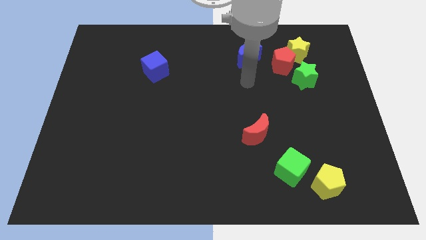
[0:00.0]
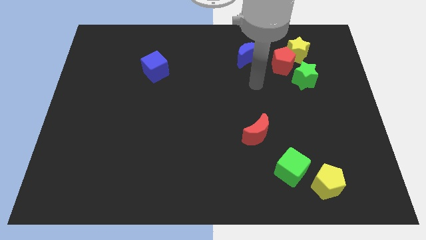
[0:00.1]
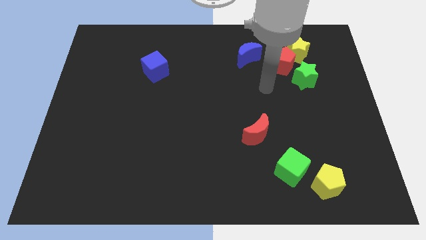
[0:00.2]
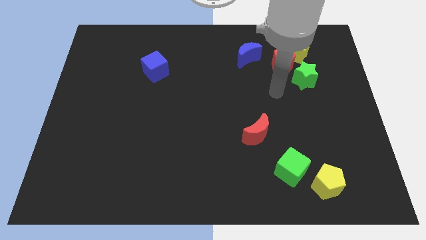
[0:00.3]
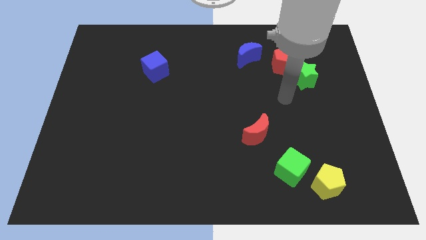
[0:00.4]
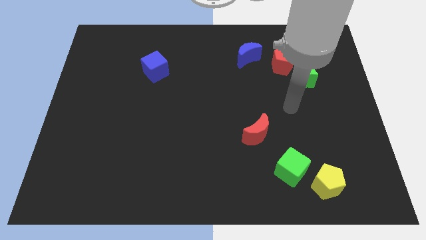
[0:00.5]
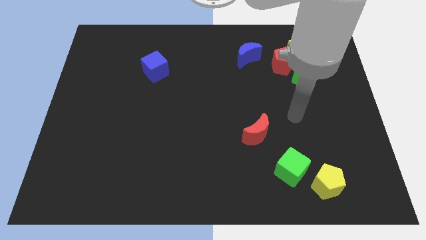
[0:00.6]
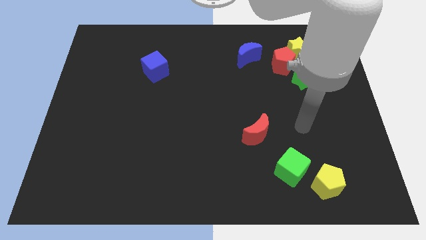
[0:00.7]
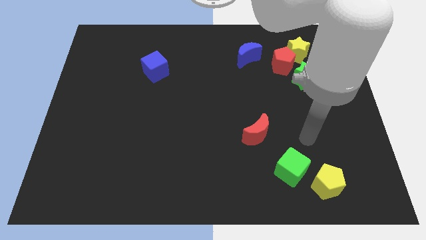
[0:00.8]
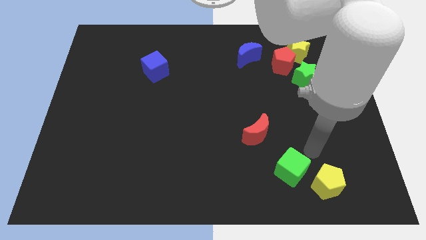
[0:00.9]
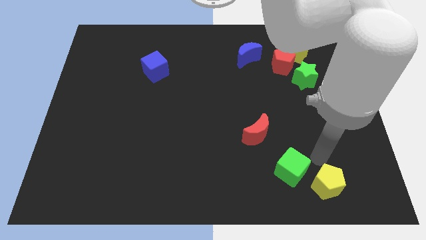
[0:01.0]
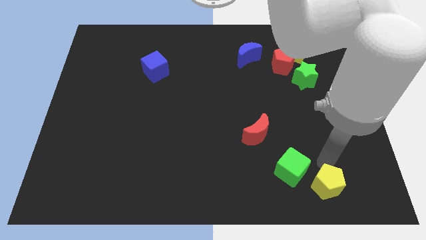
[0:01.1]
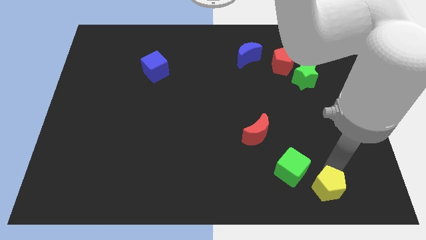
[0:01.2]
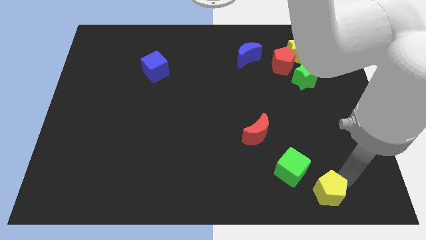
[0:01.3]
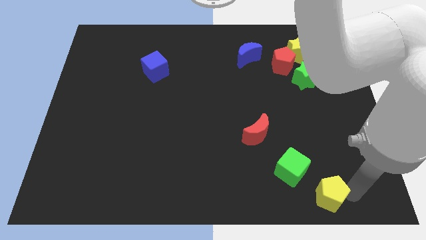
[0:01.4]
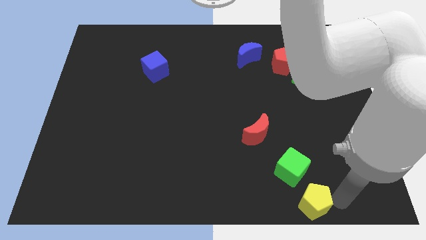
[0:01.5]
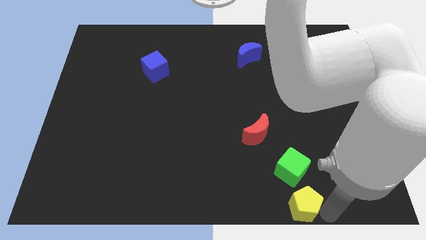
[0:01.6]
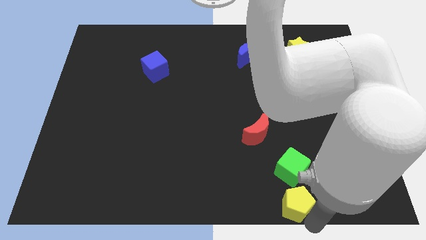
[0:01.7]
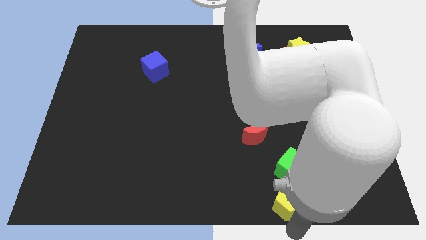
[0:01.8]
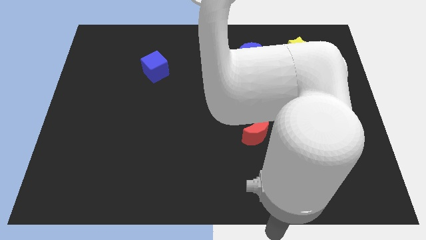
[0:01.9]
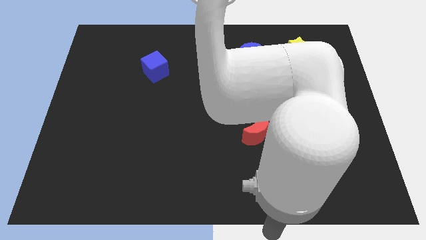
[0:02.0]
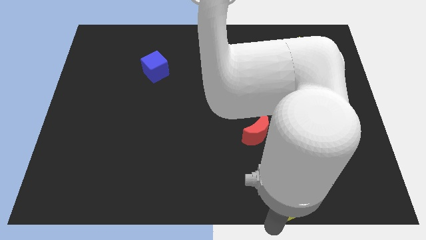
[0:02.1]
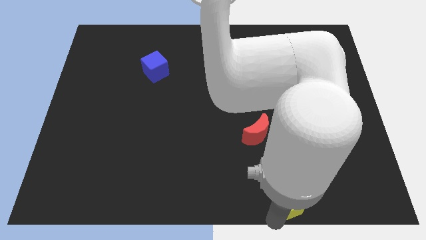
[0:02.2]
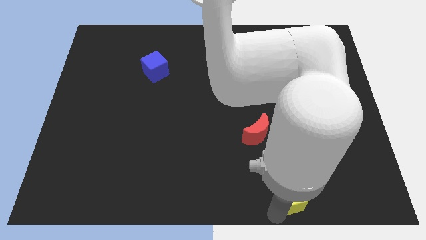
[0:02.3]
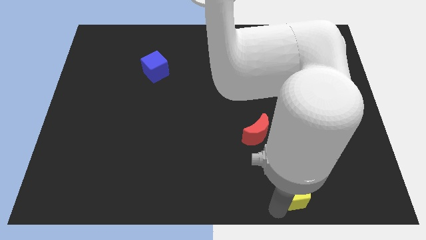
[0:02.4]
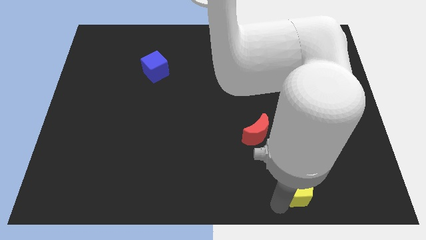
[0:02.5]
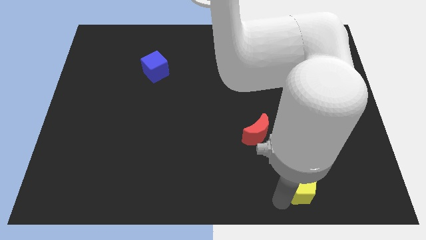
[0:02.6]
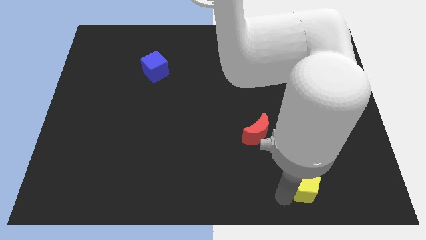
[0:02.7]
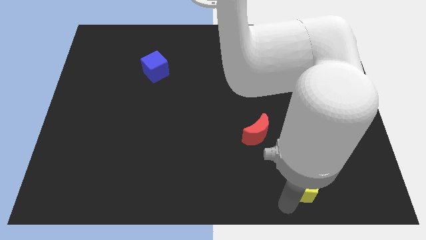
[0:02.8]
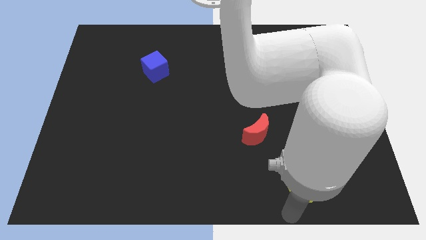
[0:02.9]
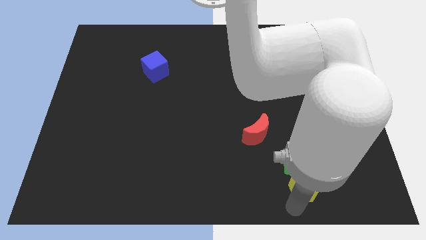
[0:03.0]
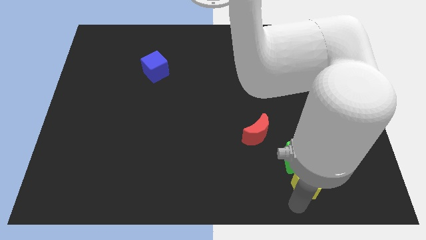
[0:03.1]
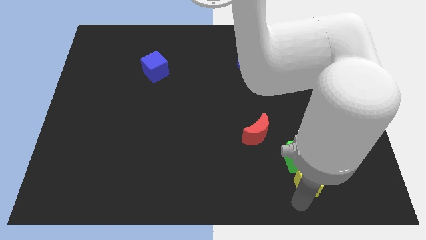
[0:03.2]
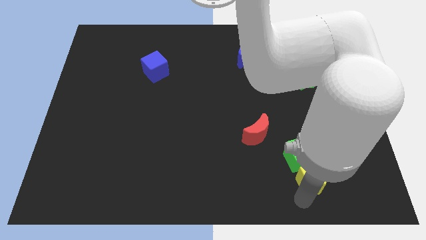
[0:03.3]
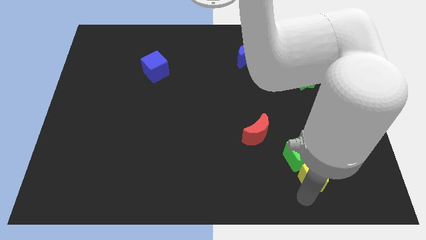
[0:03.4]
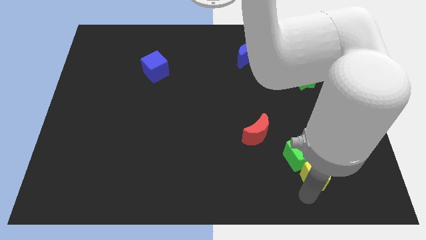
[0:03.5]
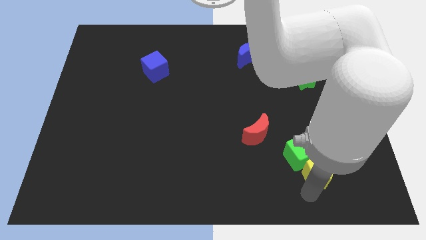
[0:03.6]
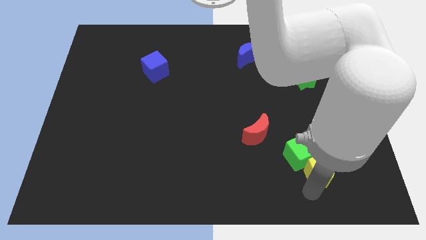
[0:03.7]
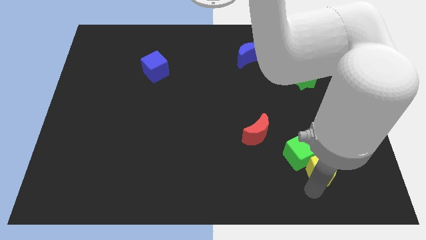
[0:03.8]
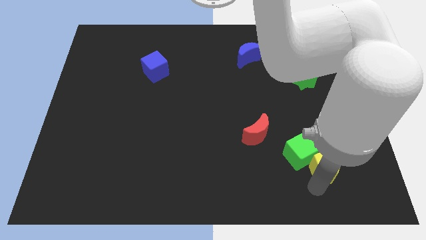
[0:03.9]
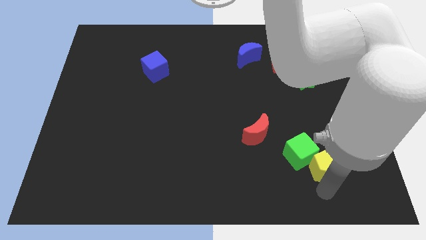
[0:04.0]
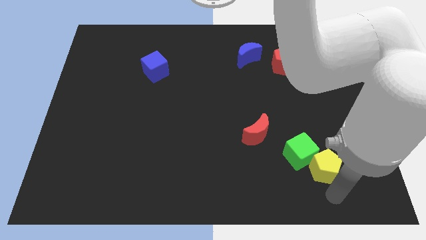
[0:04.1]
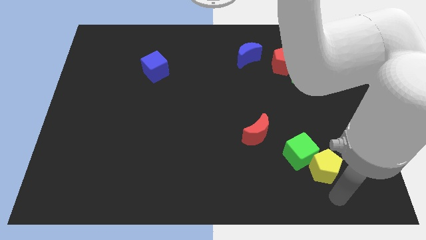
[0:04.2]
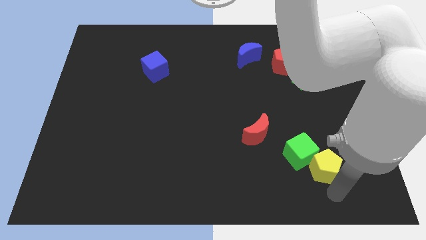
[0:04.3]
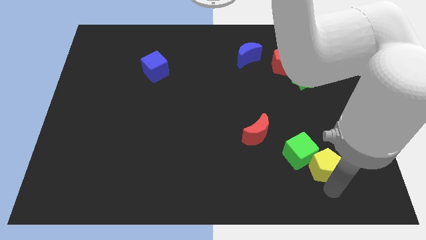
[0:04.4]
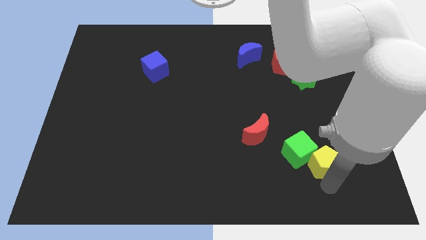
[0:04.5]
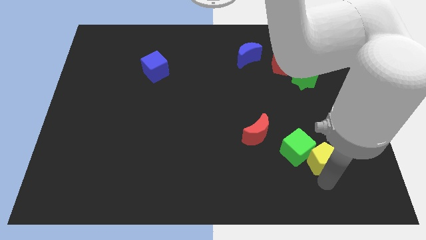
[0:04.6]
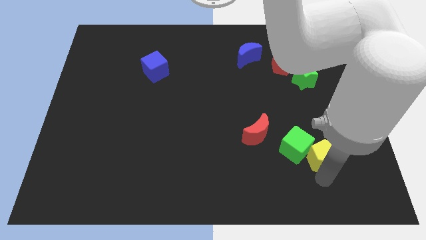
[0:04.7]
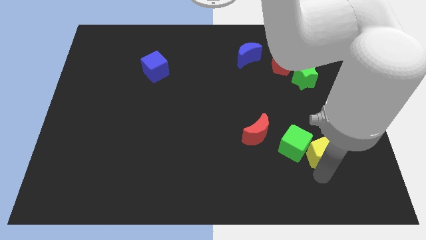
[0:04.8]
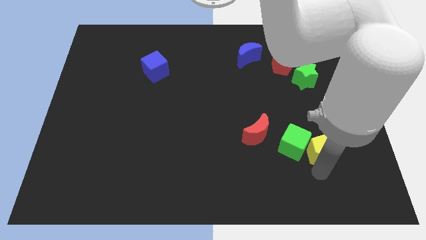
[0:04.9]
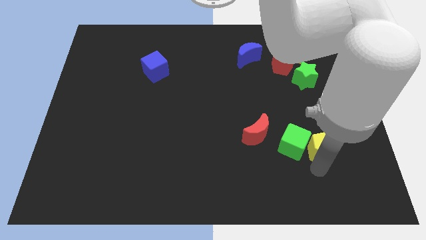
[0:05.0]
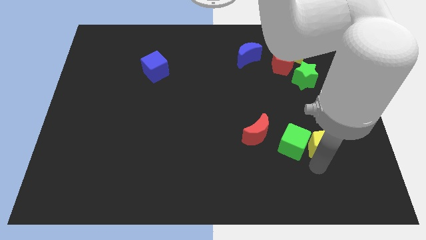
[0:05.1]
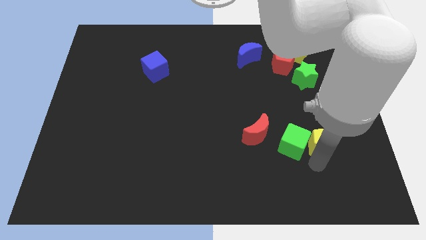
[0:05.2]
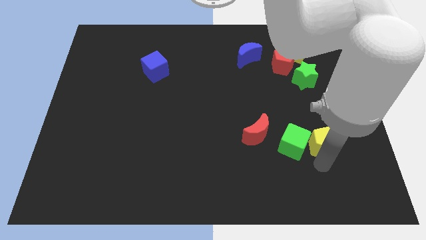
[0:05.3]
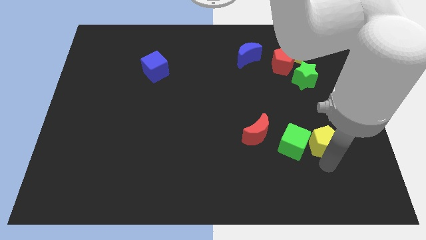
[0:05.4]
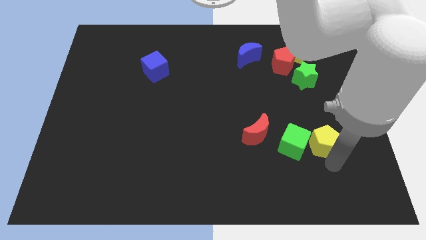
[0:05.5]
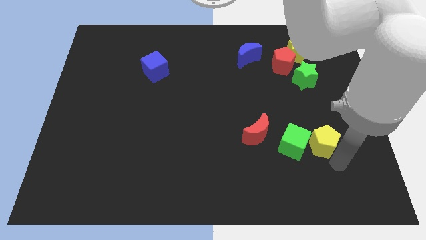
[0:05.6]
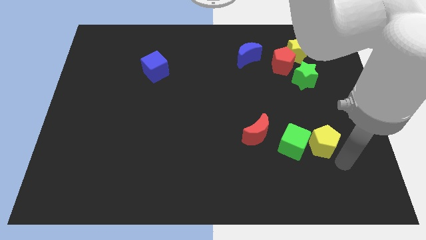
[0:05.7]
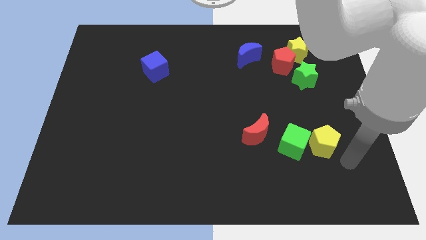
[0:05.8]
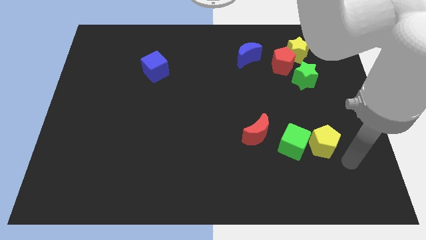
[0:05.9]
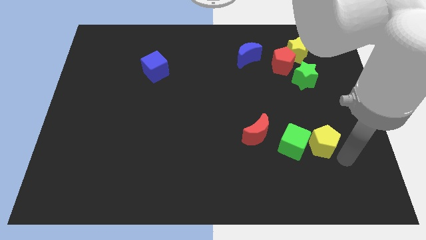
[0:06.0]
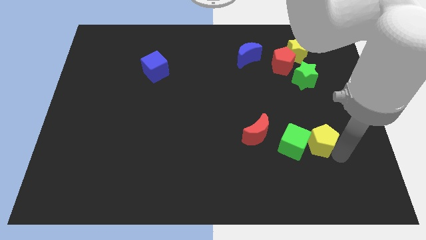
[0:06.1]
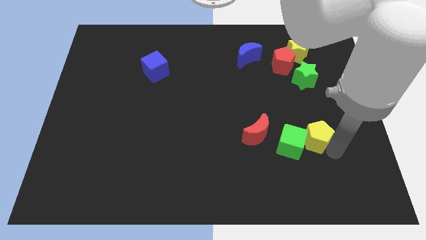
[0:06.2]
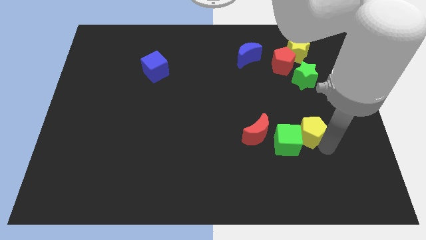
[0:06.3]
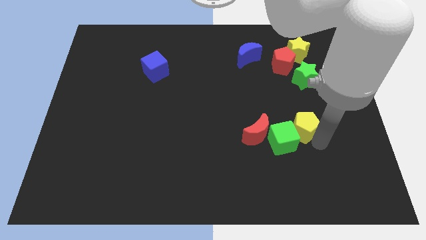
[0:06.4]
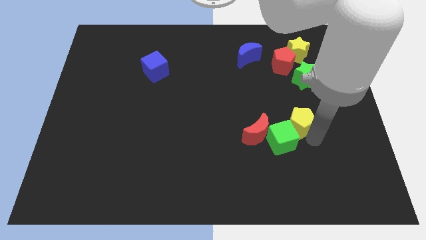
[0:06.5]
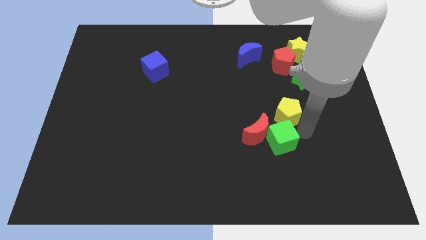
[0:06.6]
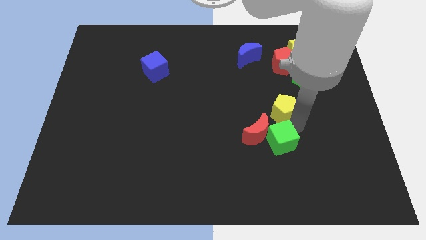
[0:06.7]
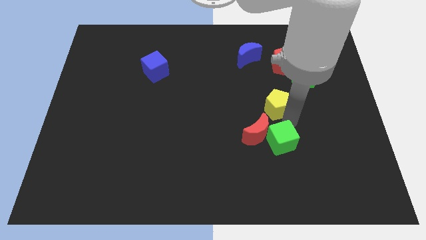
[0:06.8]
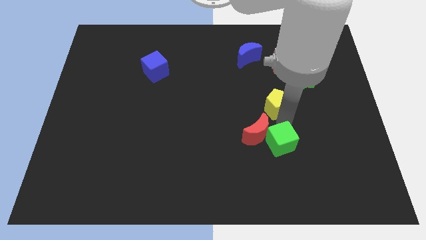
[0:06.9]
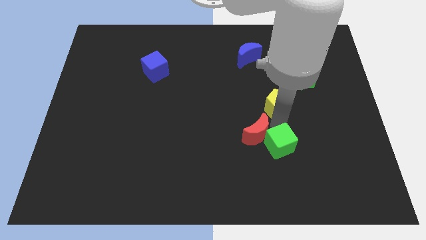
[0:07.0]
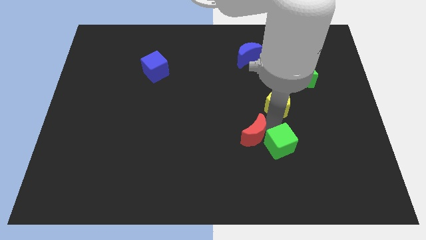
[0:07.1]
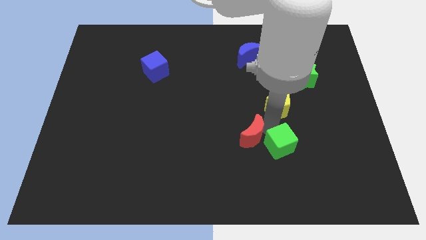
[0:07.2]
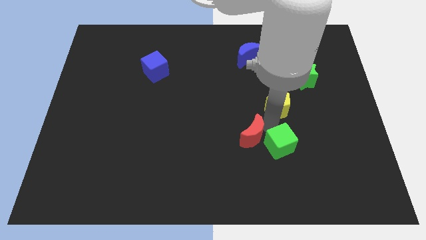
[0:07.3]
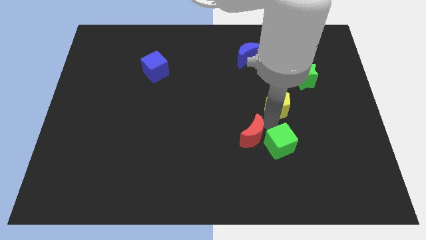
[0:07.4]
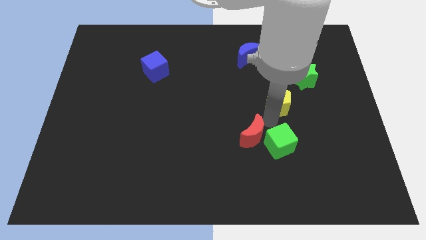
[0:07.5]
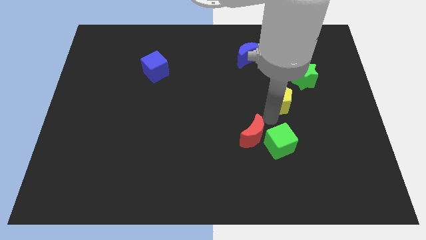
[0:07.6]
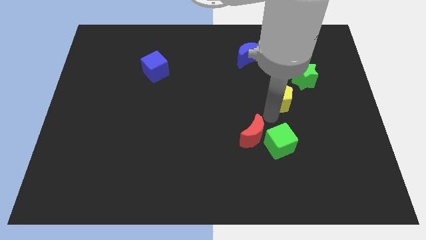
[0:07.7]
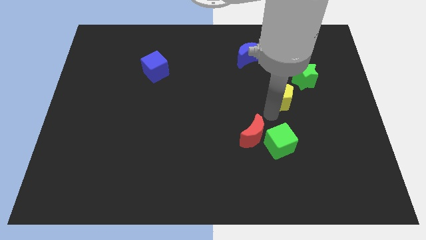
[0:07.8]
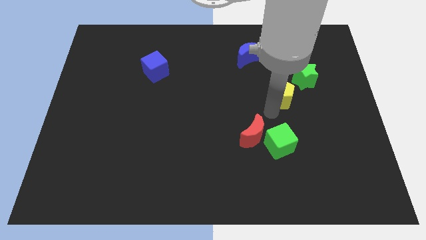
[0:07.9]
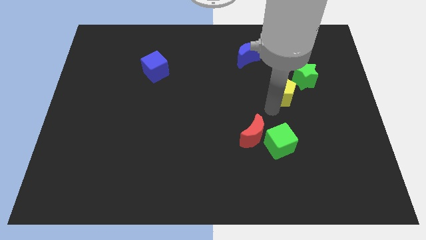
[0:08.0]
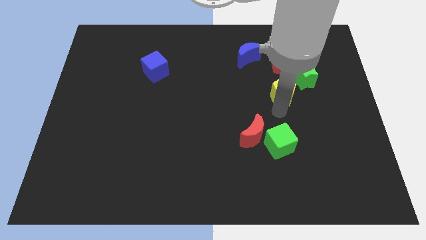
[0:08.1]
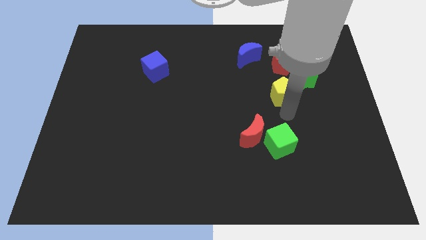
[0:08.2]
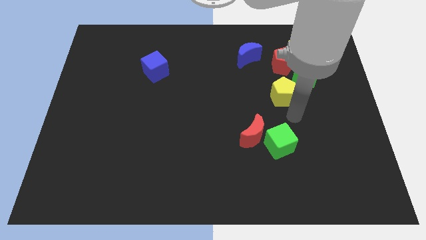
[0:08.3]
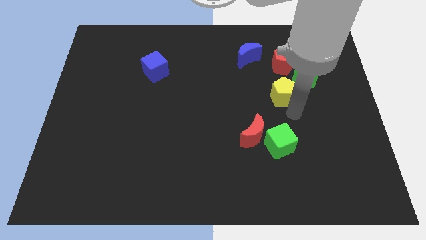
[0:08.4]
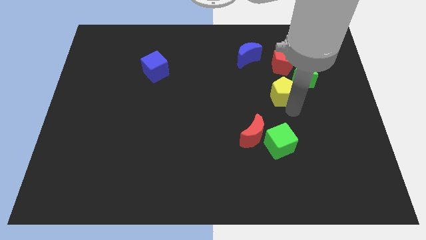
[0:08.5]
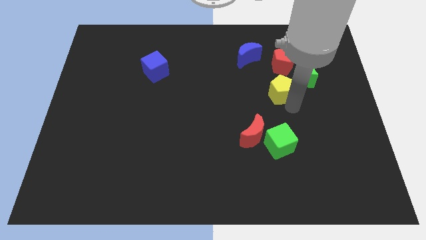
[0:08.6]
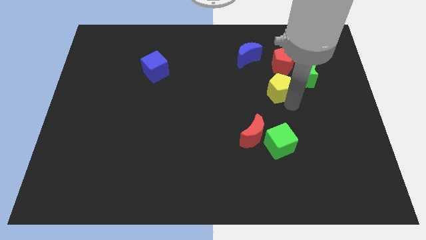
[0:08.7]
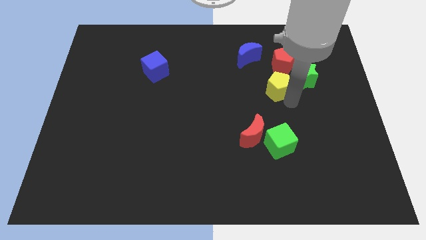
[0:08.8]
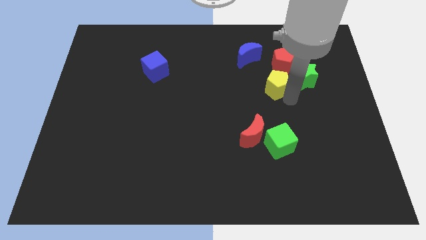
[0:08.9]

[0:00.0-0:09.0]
push the yellow pentagon to the bottom right of the blue moon
